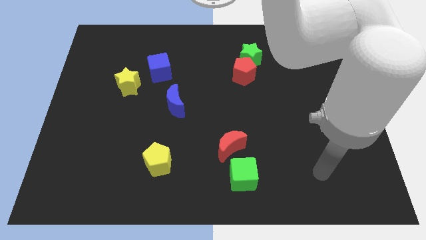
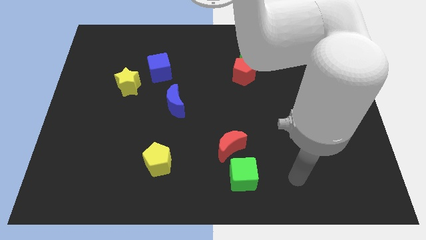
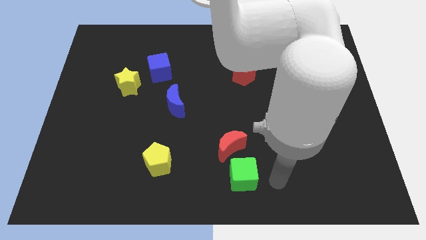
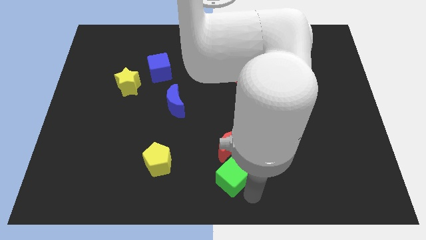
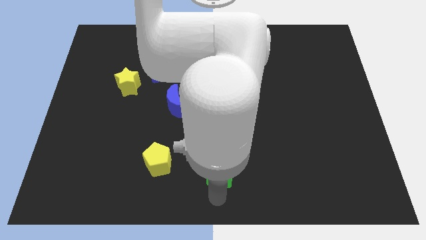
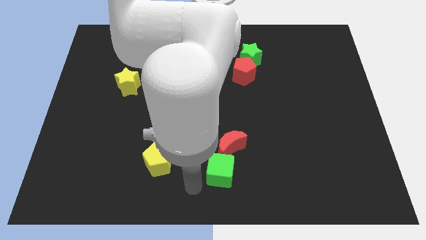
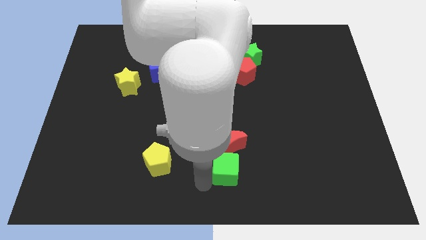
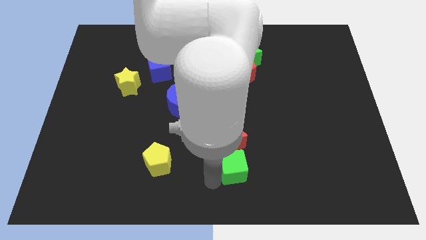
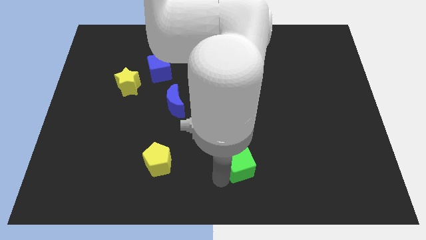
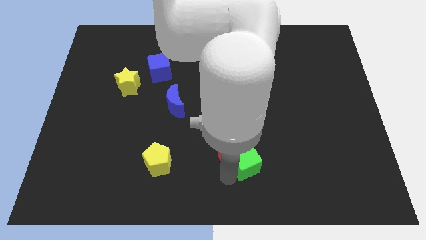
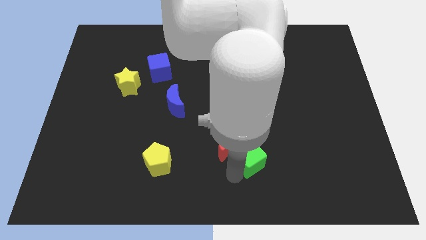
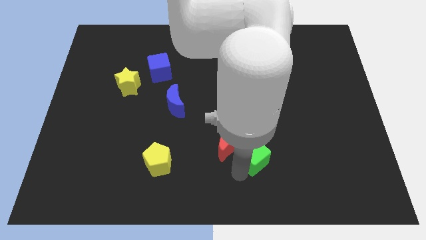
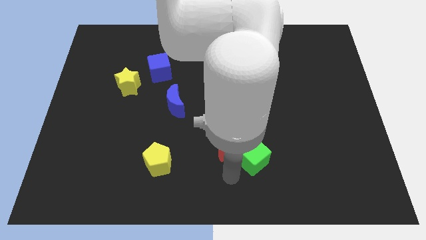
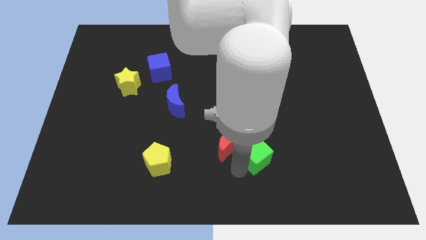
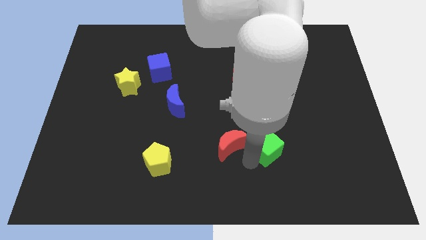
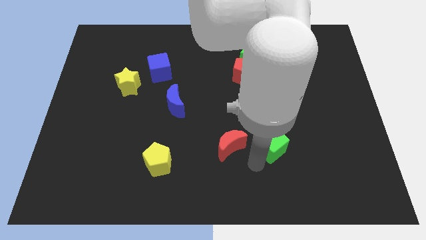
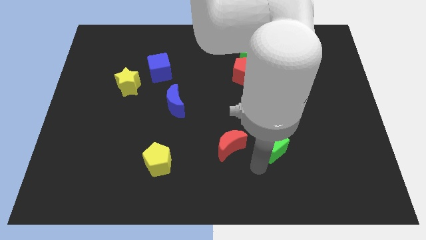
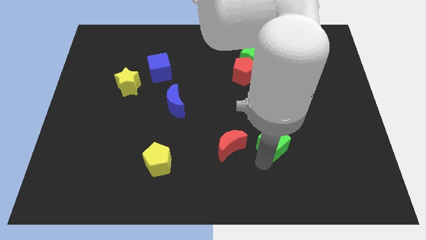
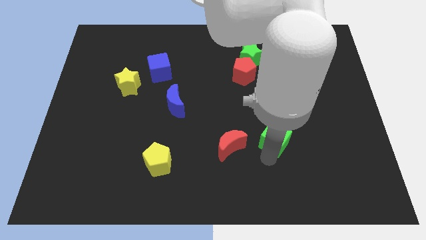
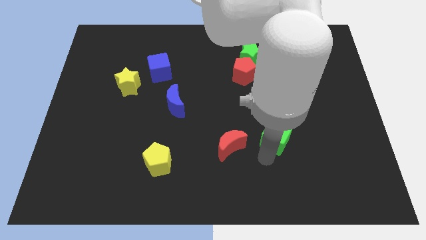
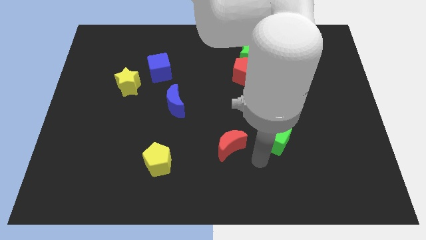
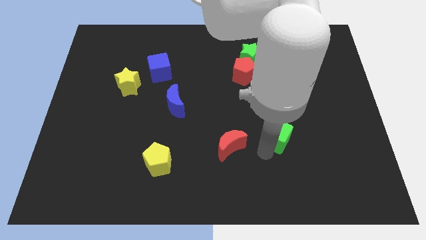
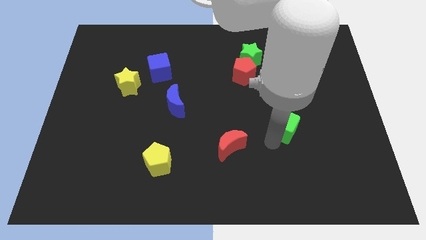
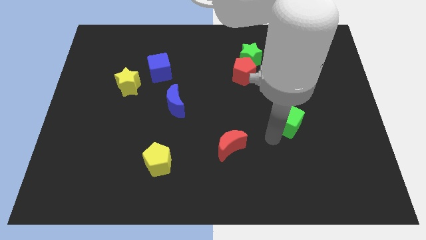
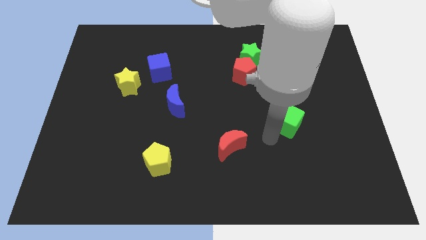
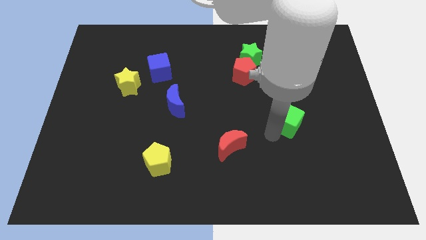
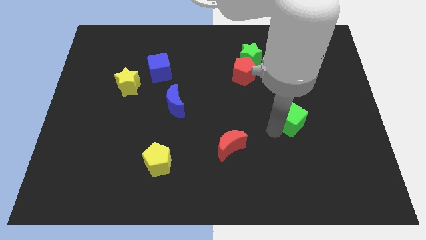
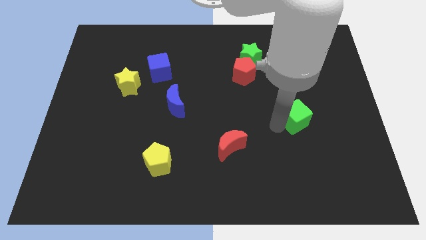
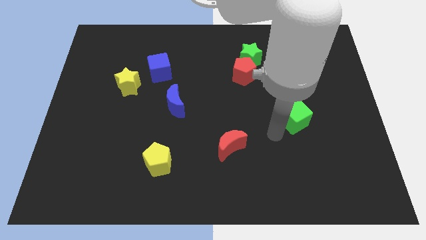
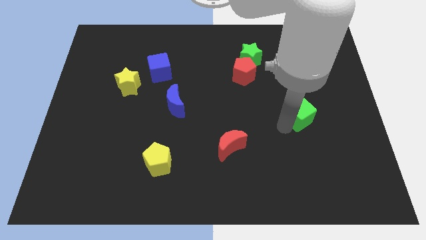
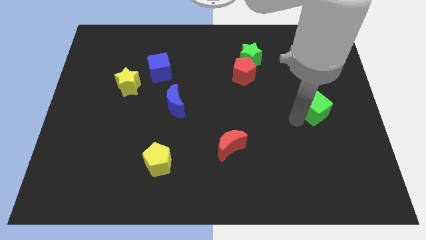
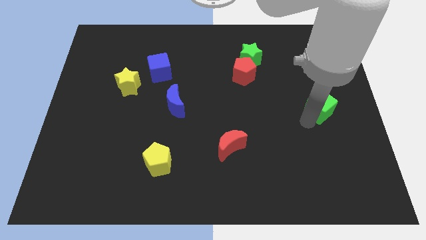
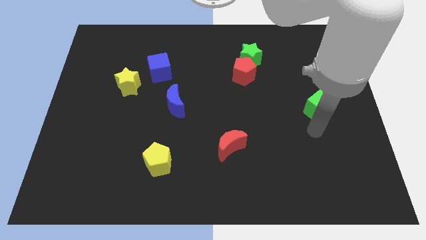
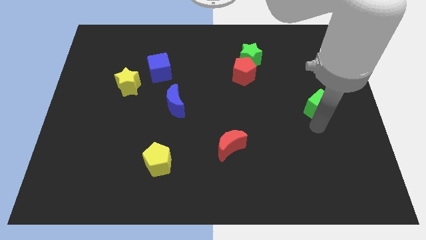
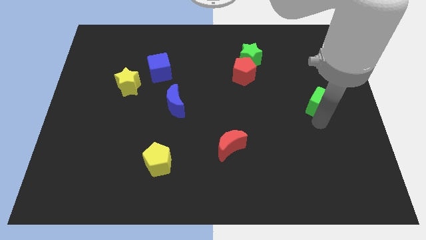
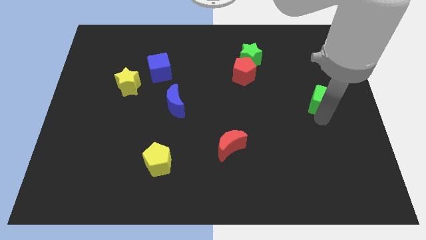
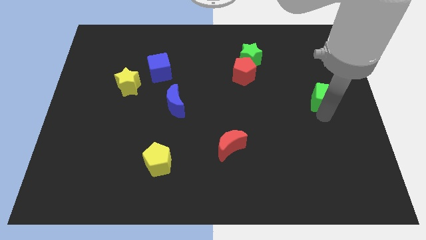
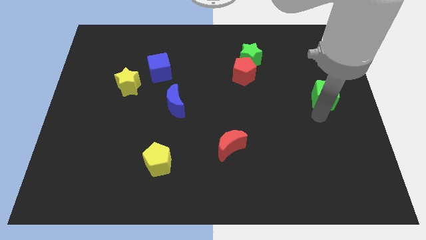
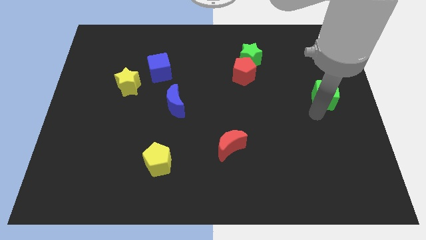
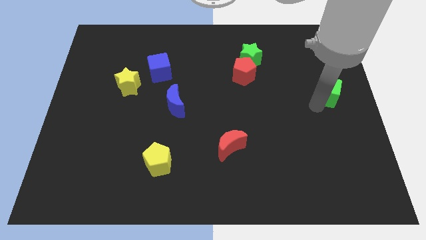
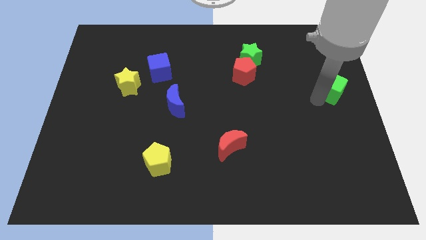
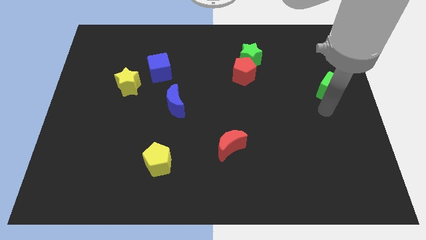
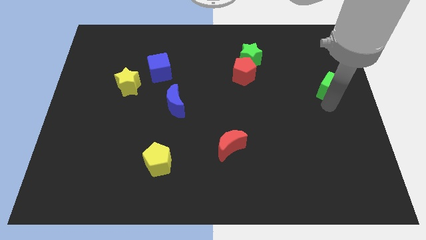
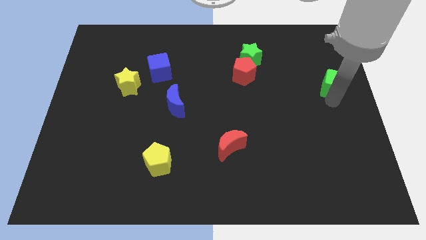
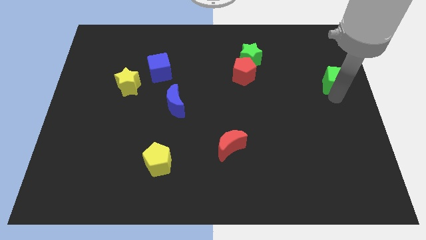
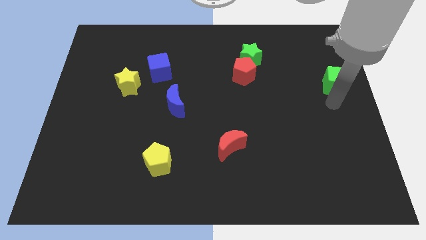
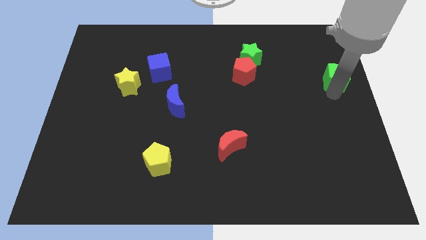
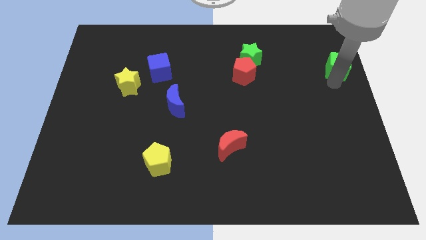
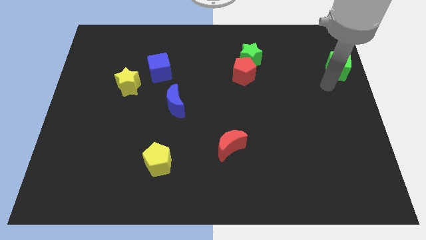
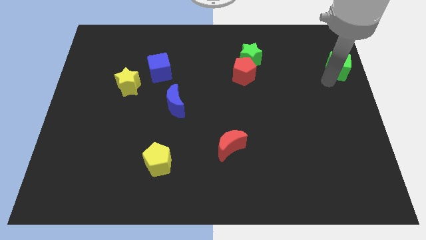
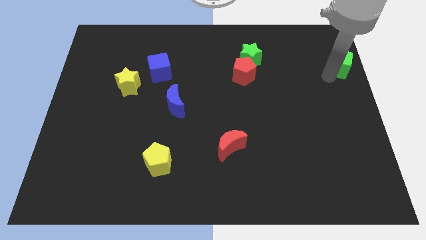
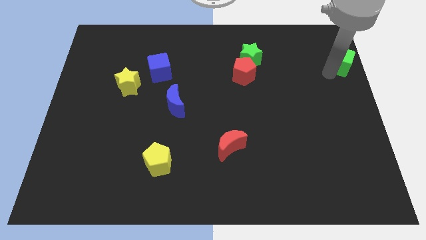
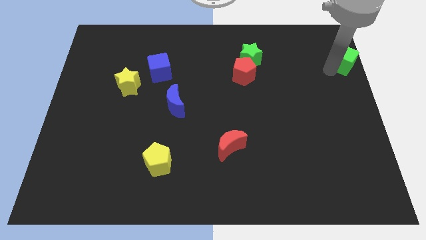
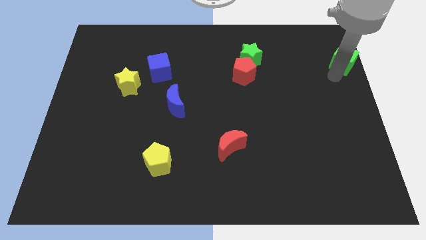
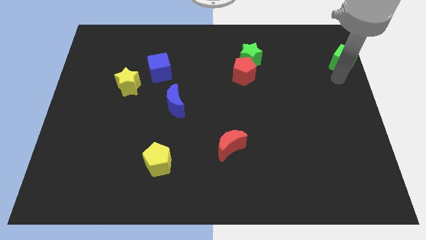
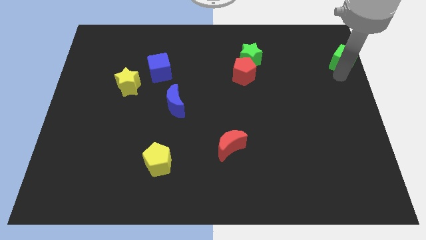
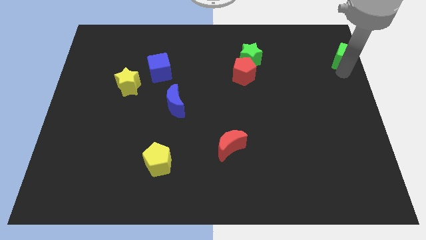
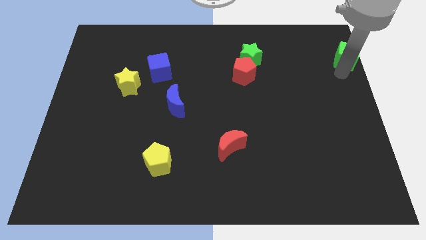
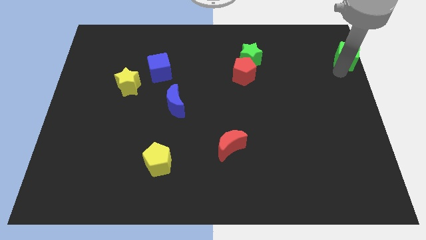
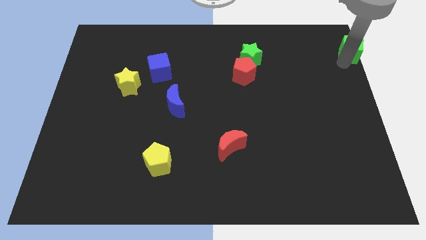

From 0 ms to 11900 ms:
put the green cube to the top right of the board

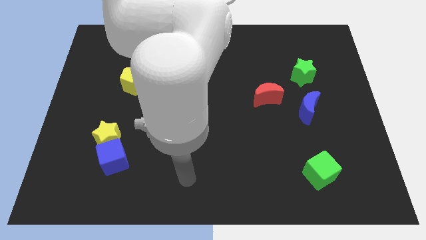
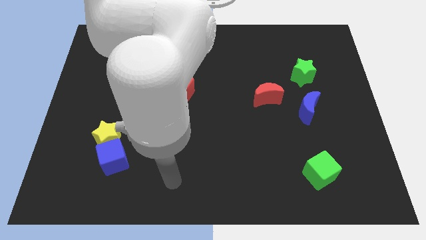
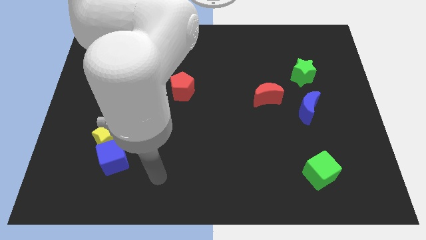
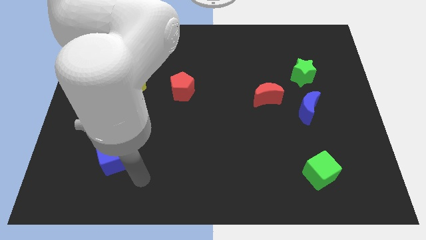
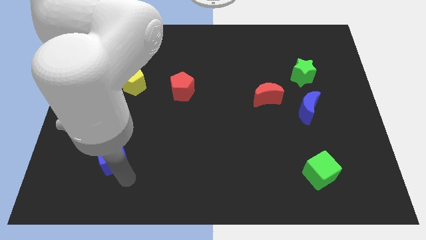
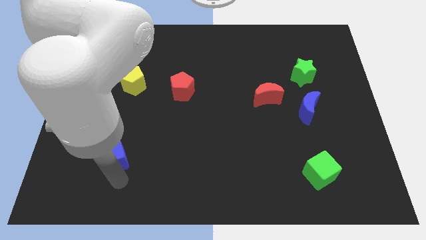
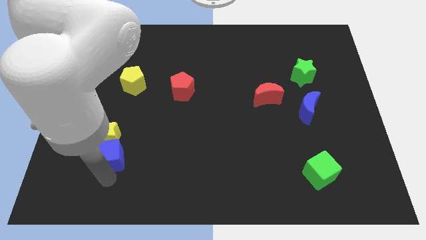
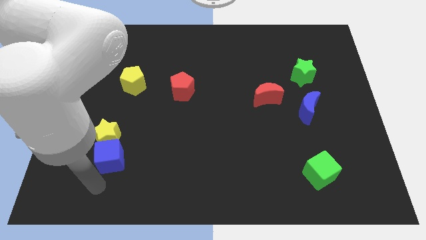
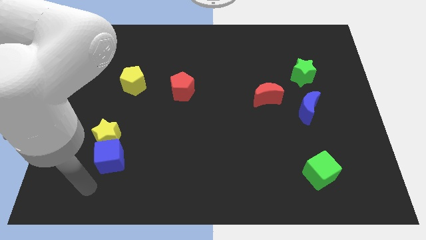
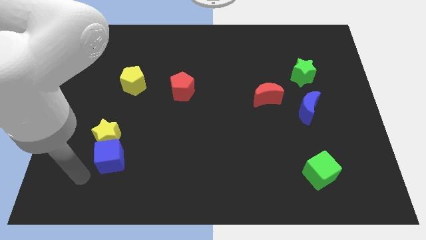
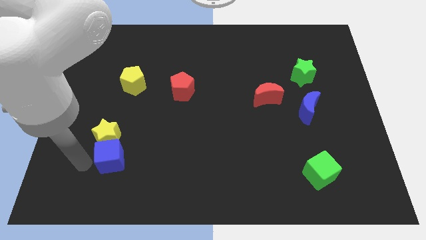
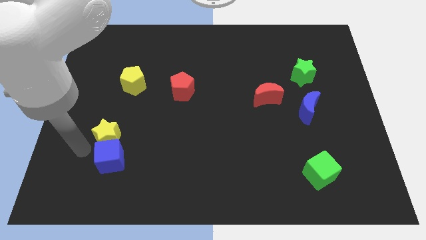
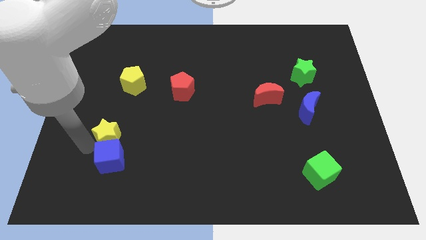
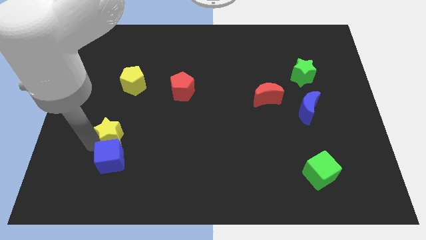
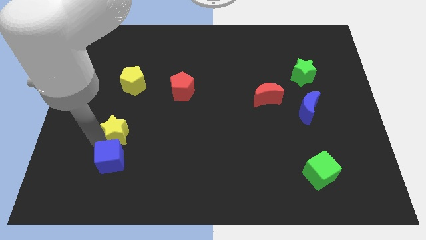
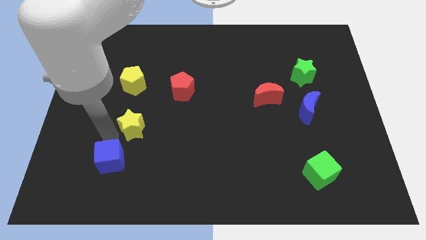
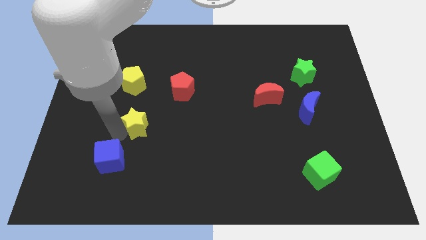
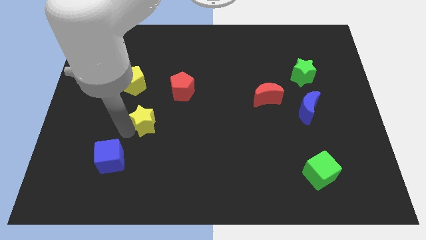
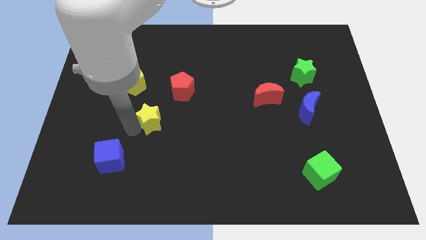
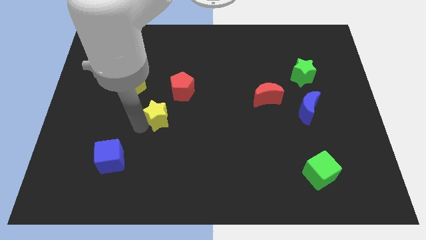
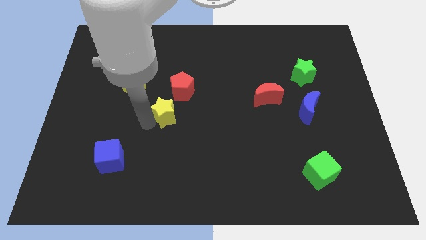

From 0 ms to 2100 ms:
move the yellow star to the middle
